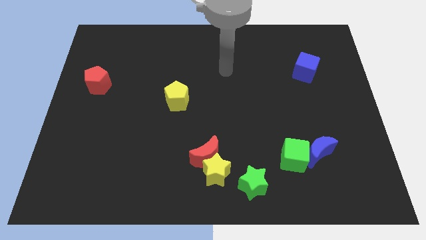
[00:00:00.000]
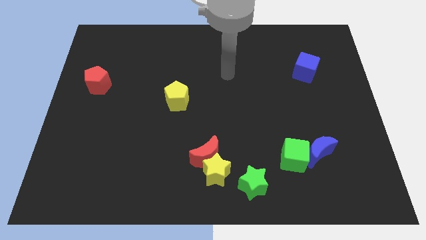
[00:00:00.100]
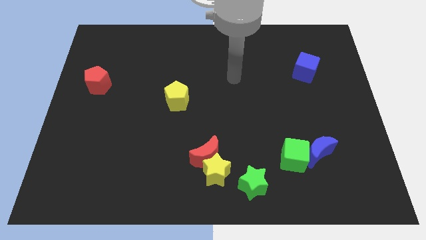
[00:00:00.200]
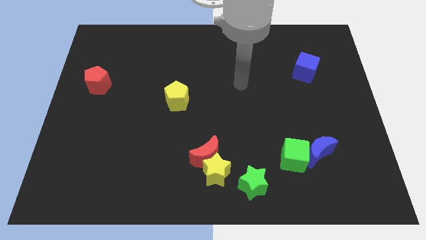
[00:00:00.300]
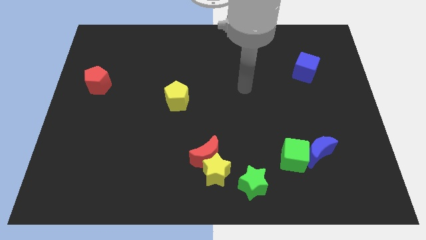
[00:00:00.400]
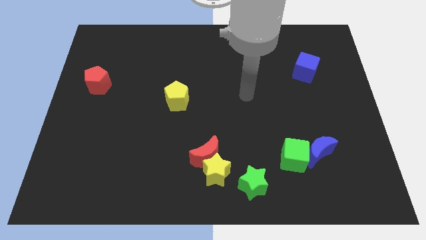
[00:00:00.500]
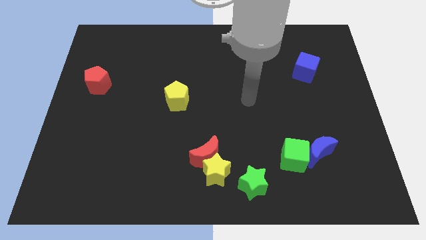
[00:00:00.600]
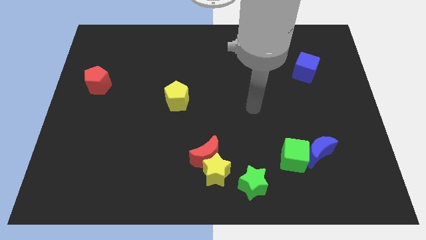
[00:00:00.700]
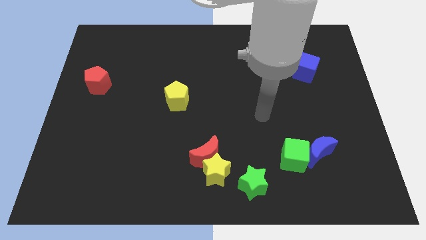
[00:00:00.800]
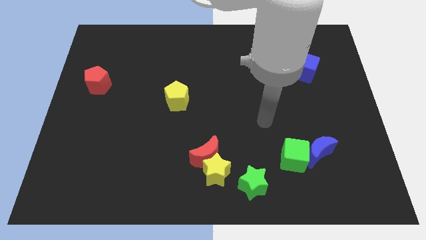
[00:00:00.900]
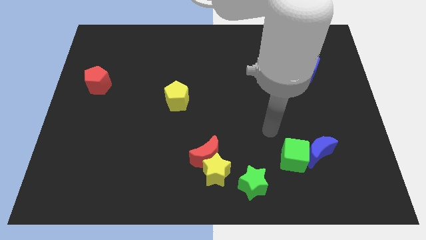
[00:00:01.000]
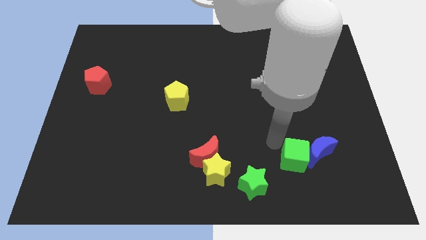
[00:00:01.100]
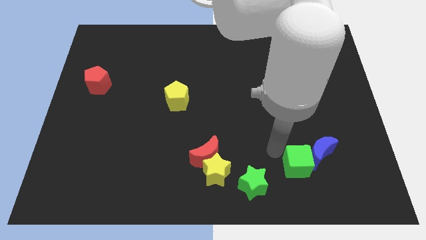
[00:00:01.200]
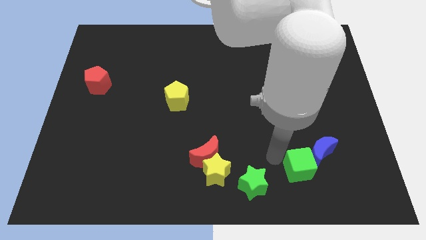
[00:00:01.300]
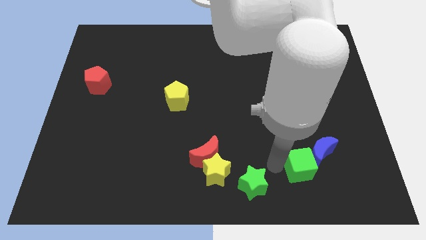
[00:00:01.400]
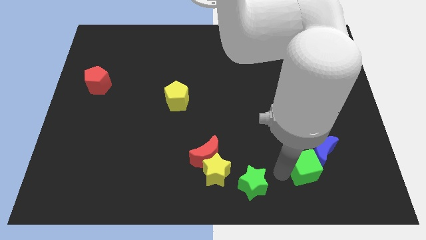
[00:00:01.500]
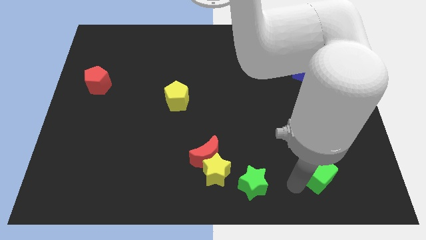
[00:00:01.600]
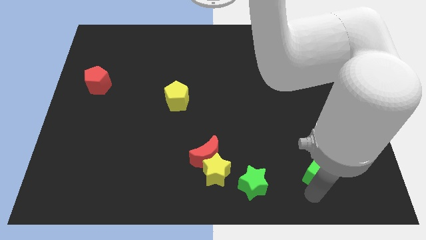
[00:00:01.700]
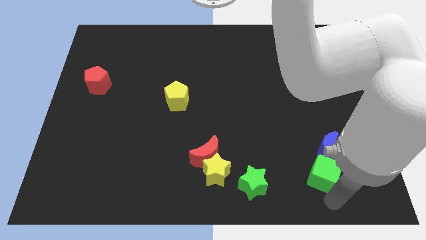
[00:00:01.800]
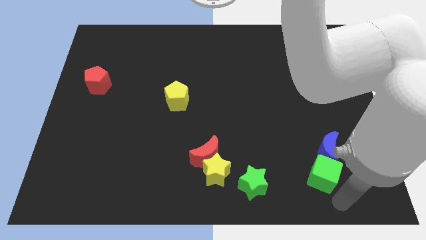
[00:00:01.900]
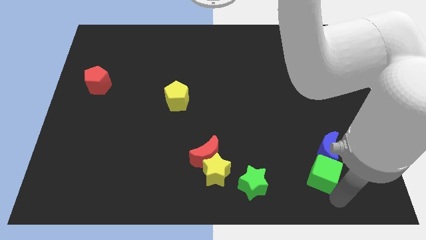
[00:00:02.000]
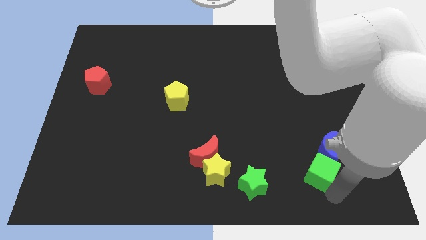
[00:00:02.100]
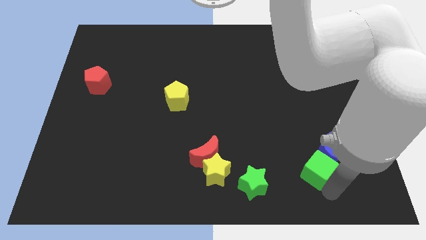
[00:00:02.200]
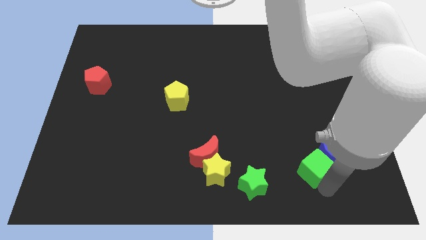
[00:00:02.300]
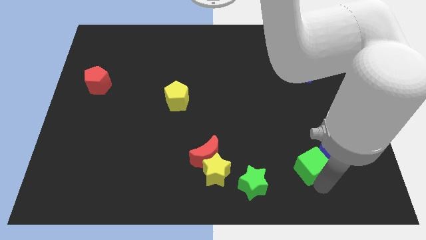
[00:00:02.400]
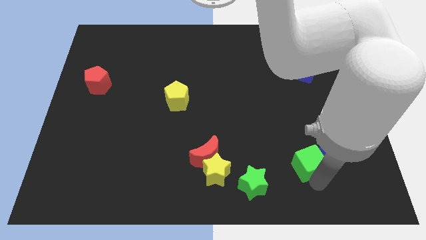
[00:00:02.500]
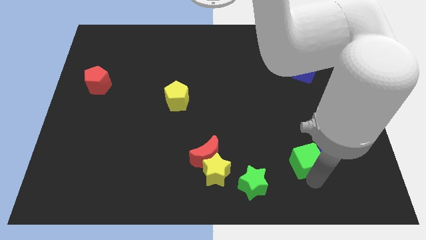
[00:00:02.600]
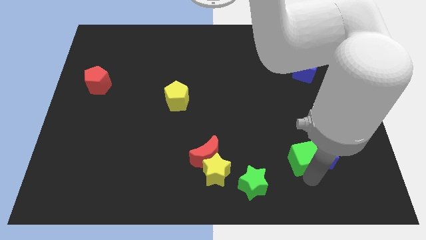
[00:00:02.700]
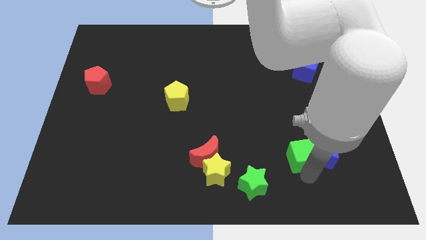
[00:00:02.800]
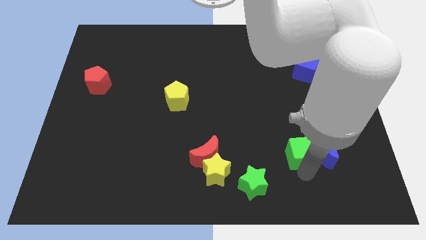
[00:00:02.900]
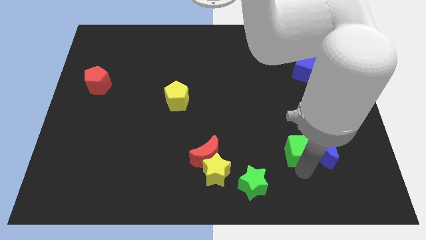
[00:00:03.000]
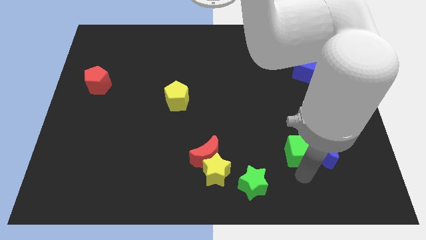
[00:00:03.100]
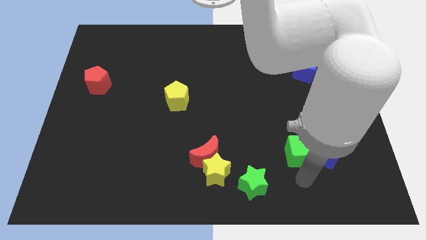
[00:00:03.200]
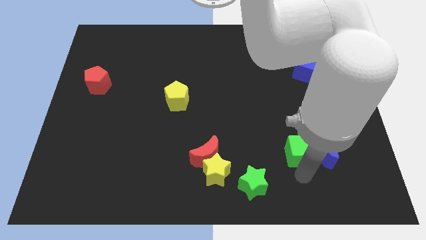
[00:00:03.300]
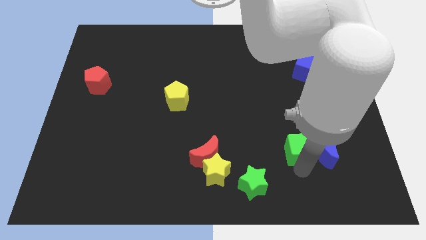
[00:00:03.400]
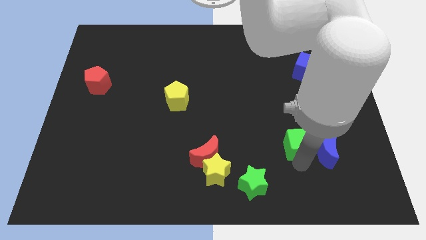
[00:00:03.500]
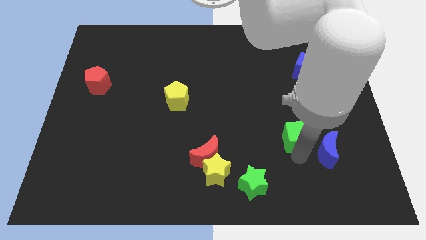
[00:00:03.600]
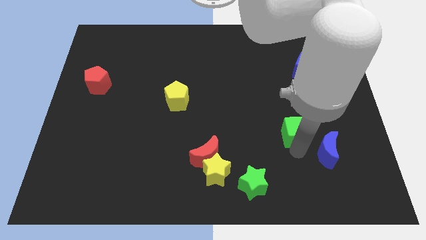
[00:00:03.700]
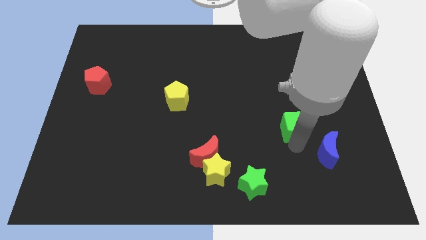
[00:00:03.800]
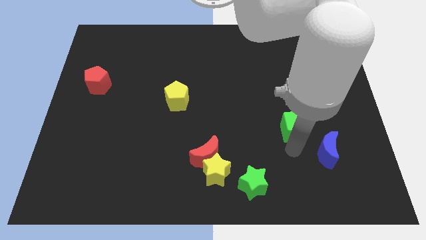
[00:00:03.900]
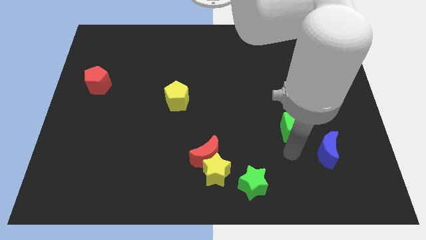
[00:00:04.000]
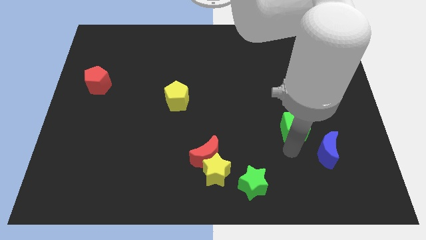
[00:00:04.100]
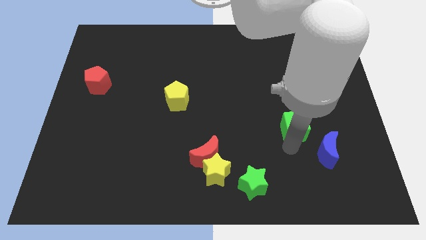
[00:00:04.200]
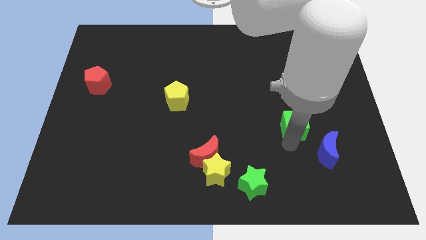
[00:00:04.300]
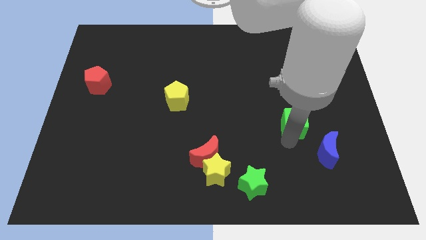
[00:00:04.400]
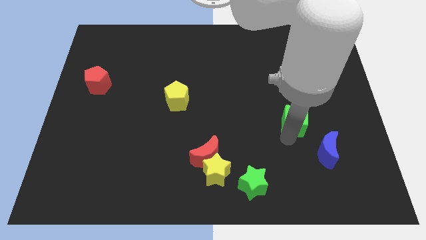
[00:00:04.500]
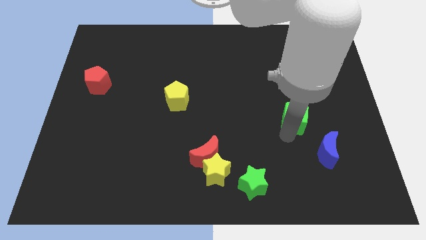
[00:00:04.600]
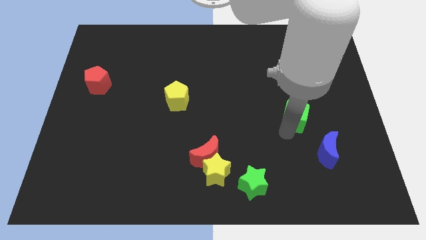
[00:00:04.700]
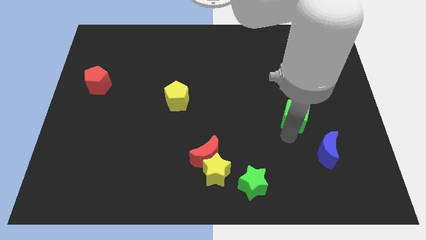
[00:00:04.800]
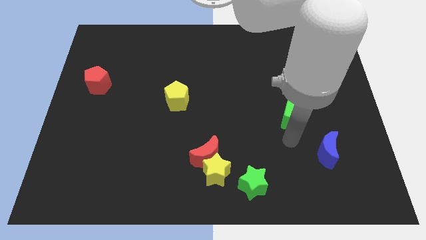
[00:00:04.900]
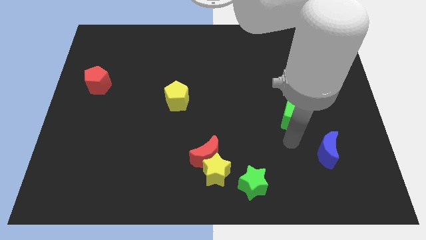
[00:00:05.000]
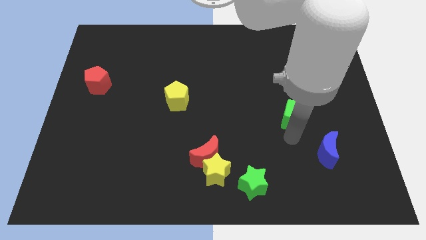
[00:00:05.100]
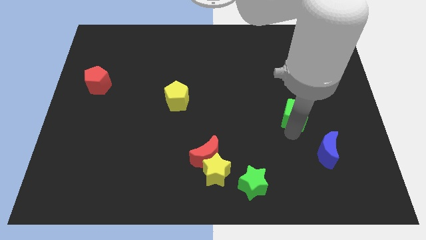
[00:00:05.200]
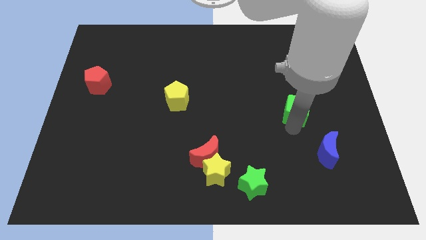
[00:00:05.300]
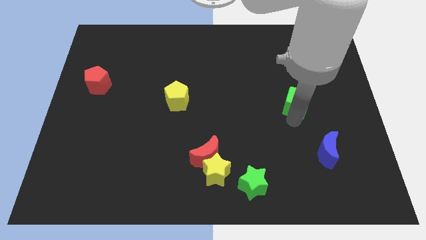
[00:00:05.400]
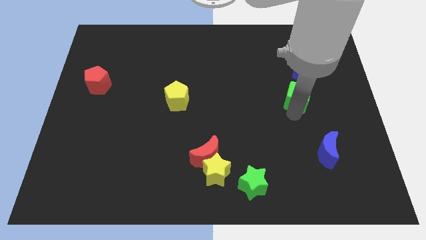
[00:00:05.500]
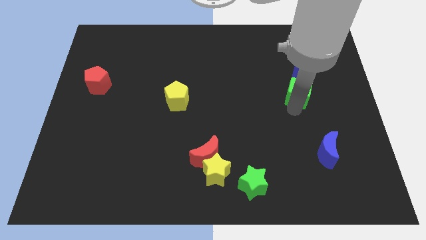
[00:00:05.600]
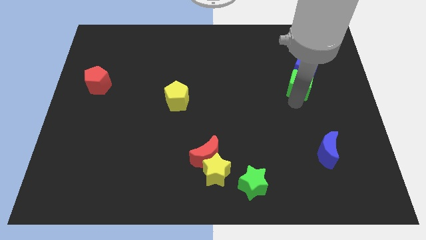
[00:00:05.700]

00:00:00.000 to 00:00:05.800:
move the green cube to the blue cube

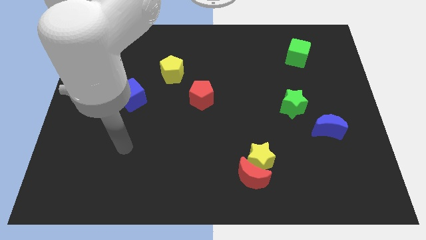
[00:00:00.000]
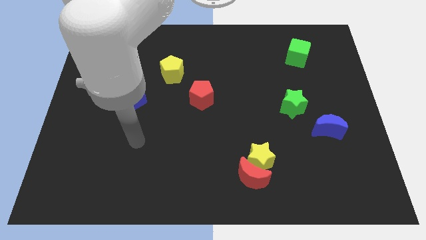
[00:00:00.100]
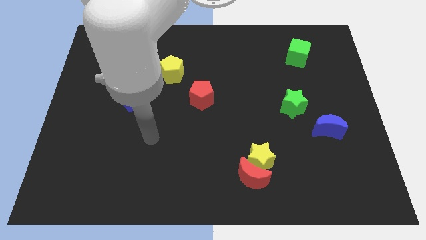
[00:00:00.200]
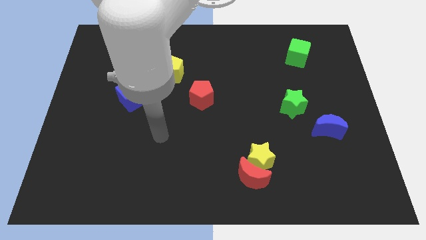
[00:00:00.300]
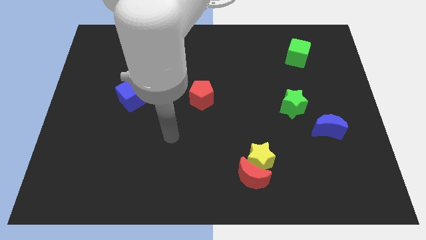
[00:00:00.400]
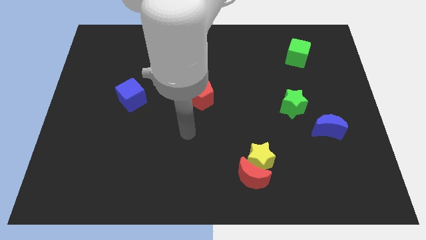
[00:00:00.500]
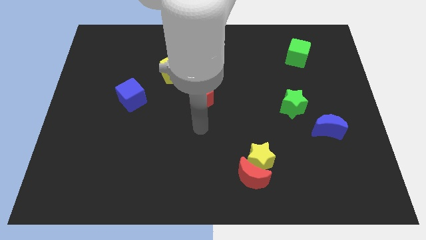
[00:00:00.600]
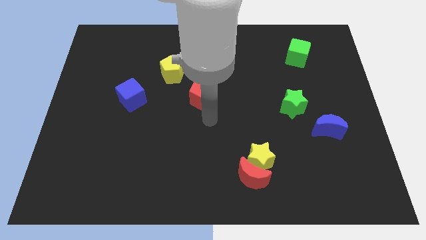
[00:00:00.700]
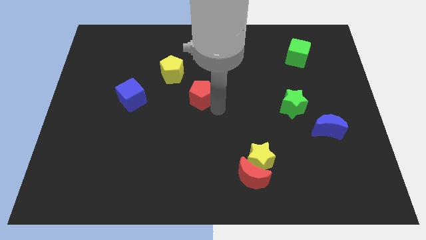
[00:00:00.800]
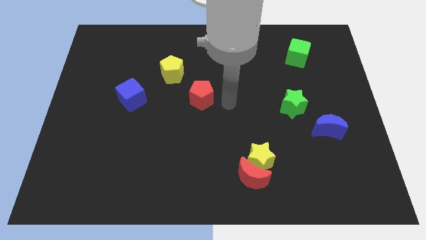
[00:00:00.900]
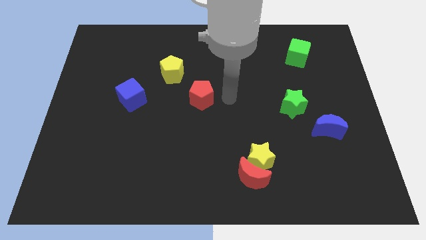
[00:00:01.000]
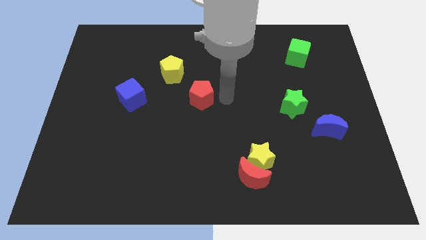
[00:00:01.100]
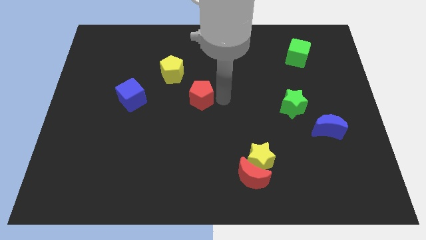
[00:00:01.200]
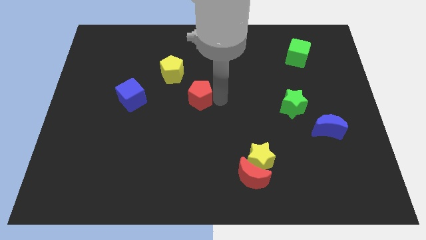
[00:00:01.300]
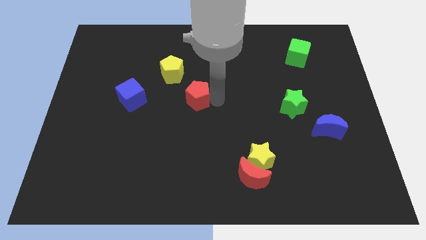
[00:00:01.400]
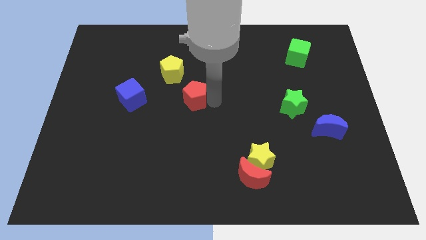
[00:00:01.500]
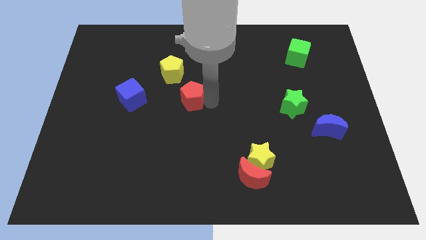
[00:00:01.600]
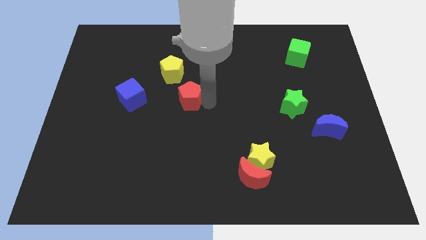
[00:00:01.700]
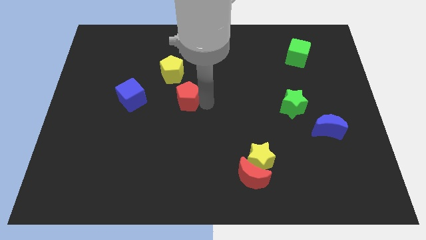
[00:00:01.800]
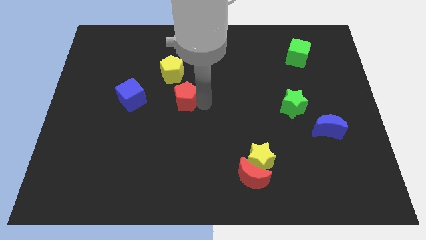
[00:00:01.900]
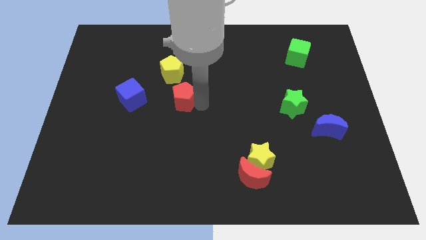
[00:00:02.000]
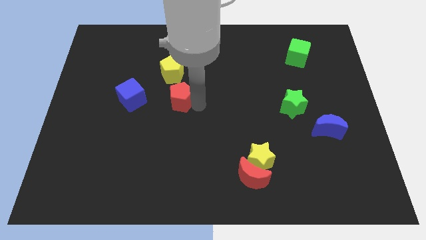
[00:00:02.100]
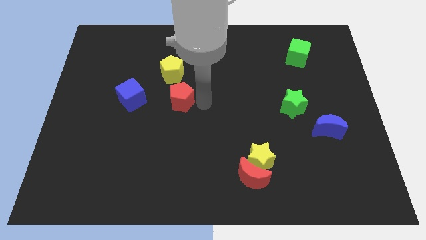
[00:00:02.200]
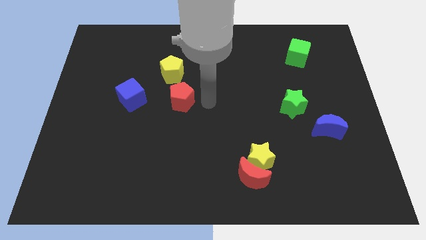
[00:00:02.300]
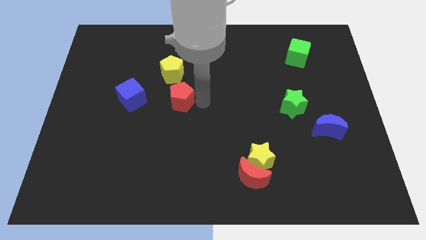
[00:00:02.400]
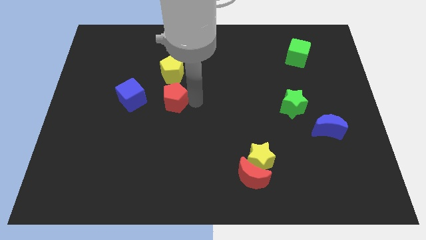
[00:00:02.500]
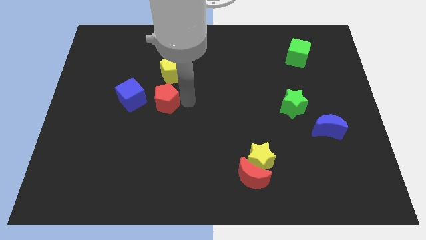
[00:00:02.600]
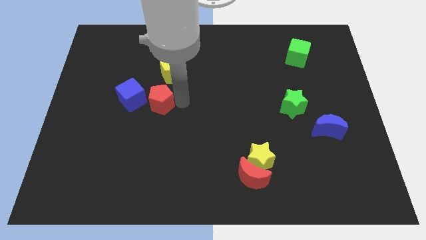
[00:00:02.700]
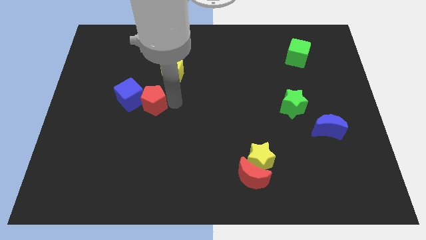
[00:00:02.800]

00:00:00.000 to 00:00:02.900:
slide the red pentagon to the blue cube
